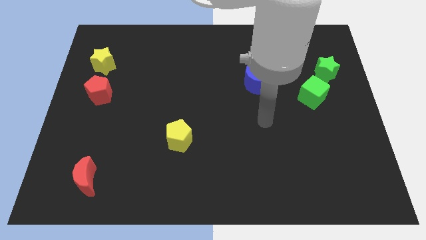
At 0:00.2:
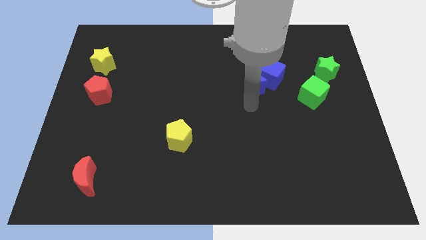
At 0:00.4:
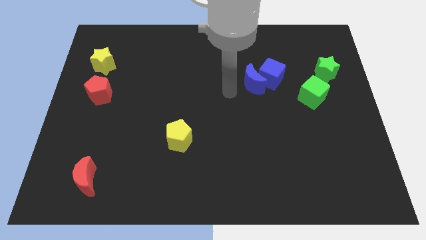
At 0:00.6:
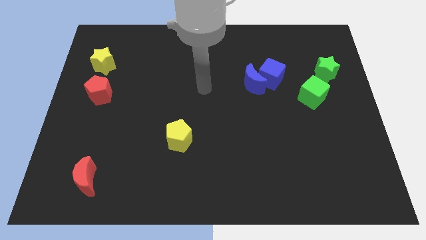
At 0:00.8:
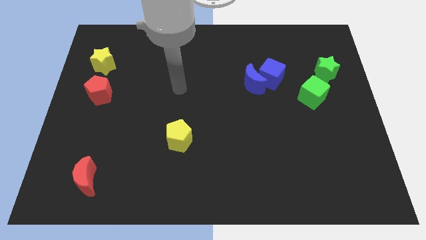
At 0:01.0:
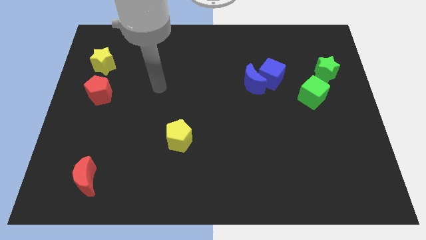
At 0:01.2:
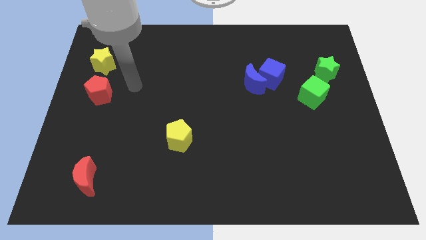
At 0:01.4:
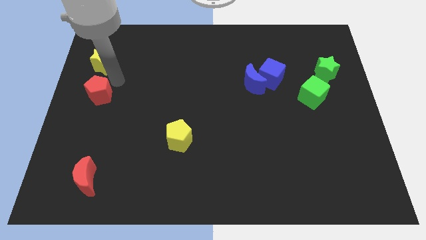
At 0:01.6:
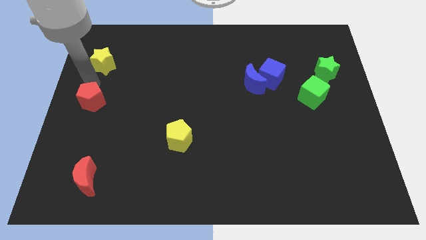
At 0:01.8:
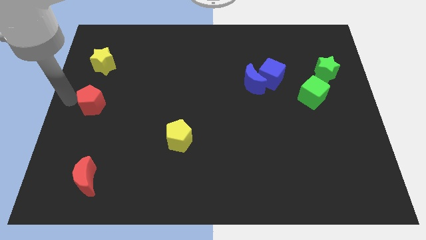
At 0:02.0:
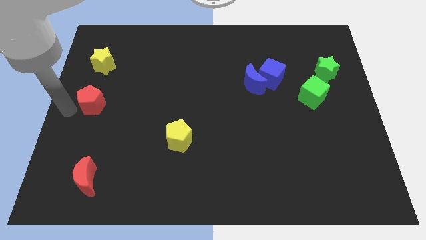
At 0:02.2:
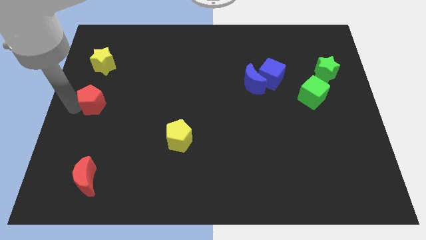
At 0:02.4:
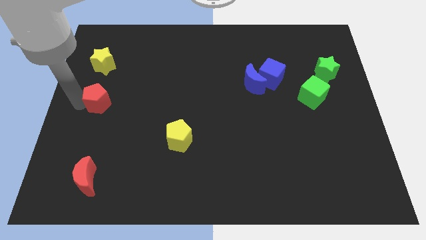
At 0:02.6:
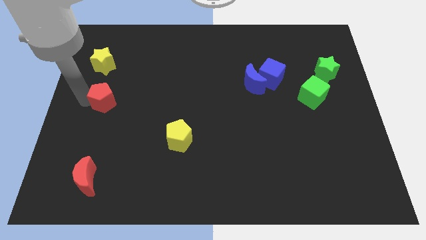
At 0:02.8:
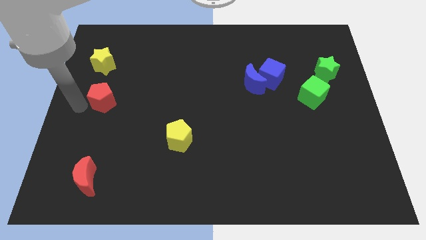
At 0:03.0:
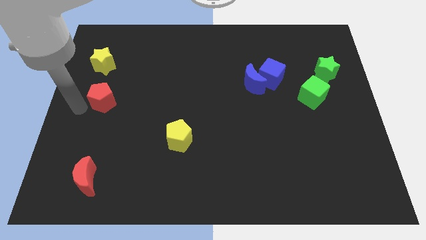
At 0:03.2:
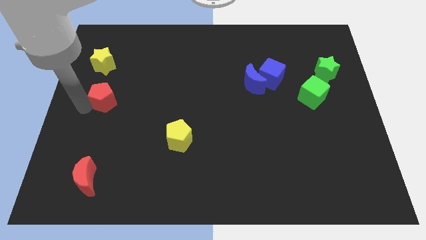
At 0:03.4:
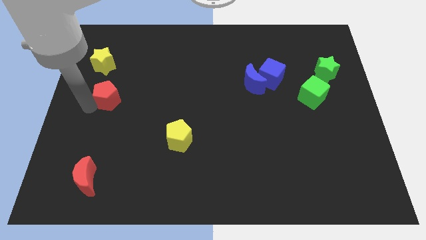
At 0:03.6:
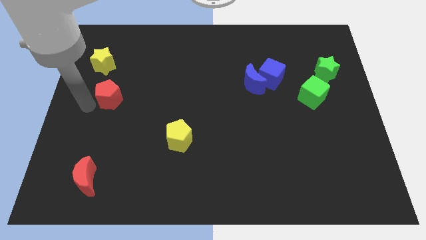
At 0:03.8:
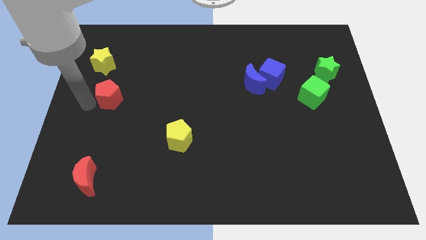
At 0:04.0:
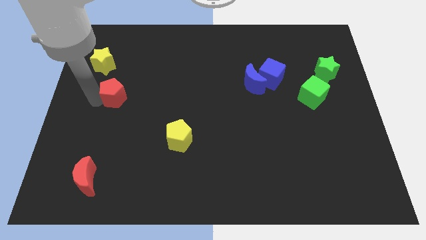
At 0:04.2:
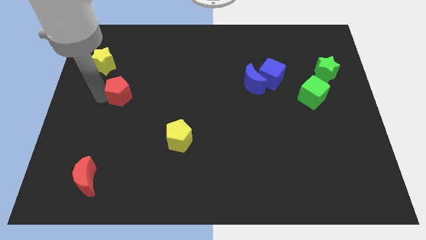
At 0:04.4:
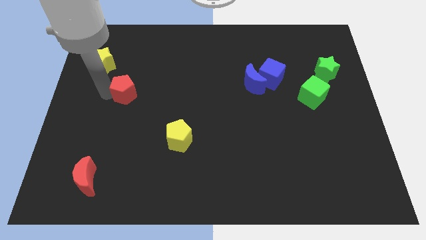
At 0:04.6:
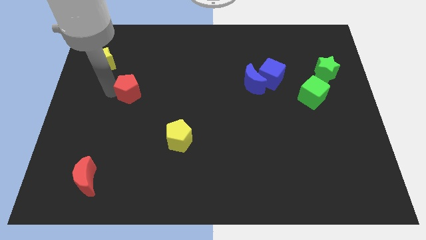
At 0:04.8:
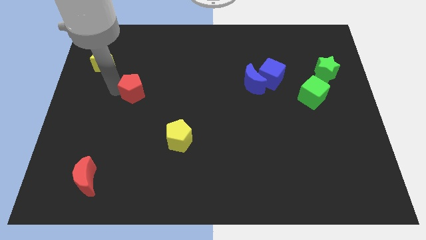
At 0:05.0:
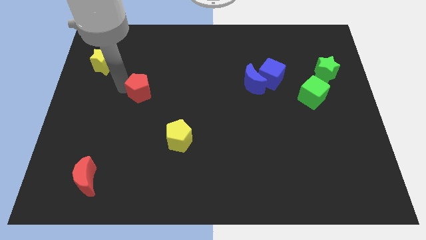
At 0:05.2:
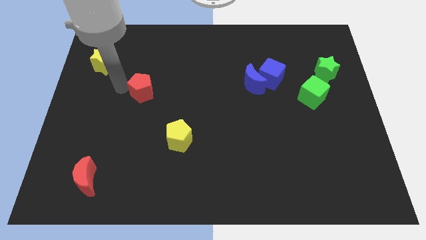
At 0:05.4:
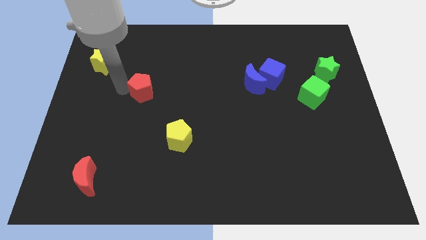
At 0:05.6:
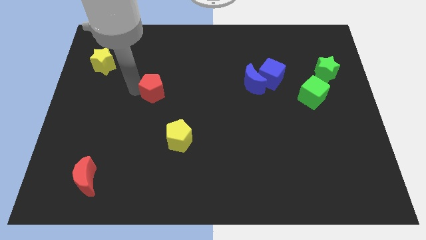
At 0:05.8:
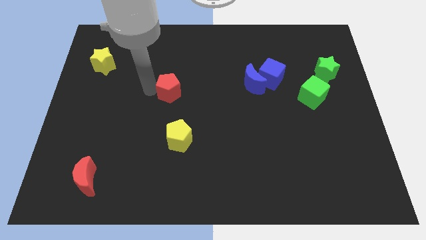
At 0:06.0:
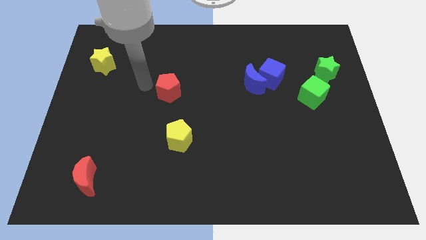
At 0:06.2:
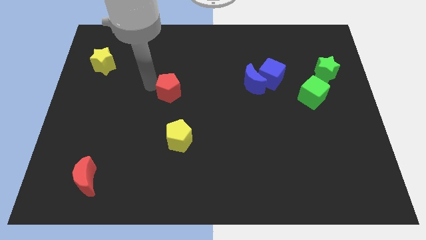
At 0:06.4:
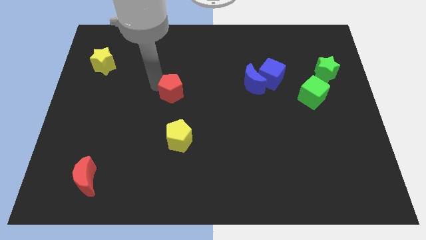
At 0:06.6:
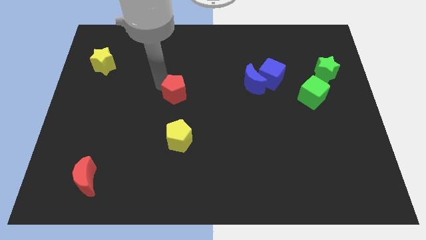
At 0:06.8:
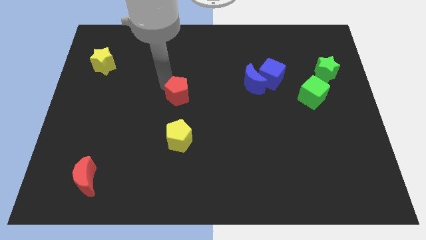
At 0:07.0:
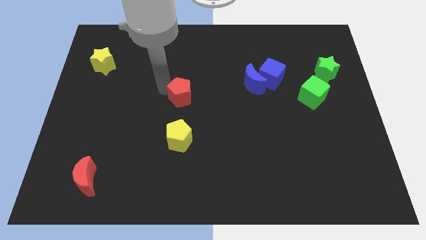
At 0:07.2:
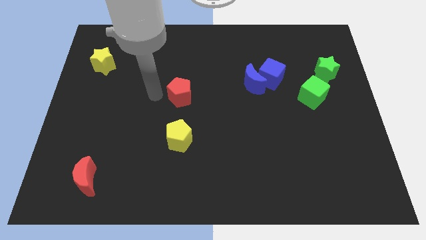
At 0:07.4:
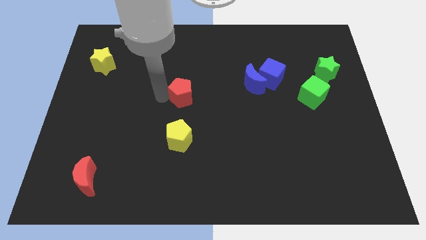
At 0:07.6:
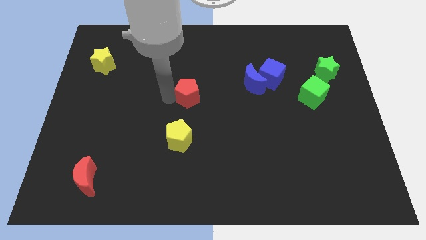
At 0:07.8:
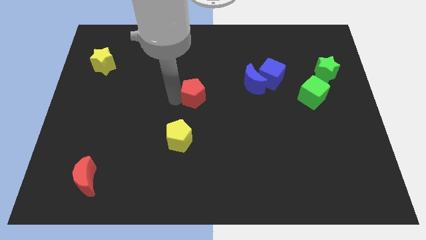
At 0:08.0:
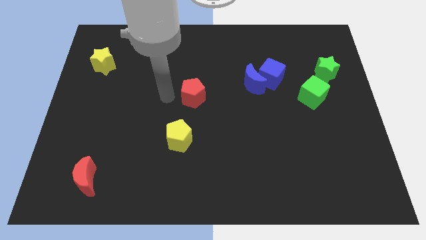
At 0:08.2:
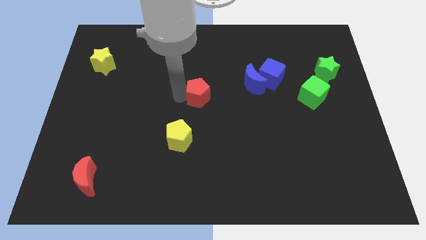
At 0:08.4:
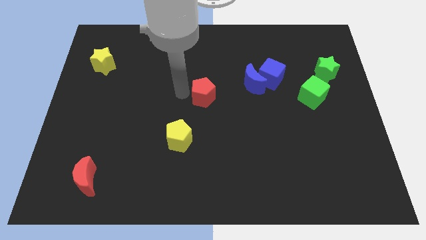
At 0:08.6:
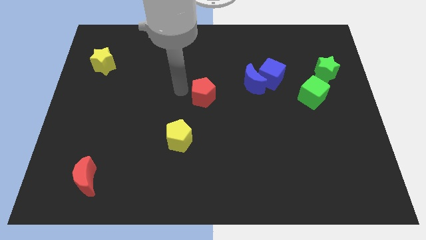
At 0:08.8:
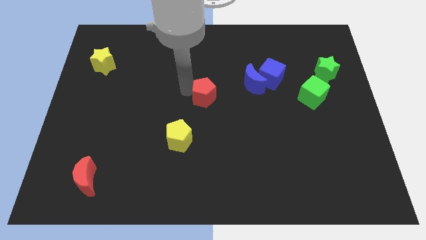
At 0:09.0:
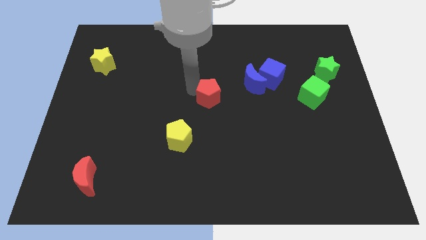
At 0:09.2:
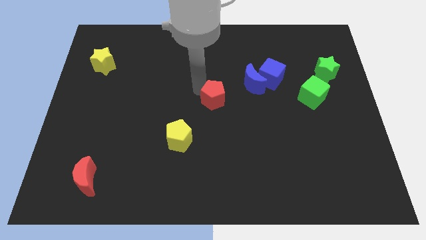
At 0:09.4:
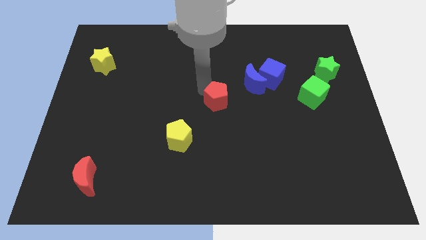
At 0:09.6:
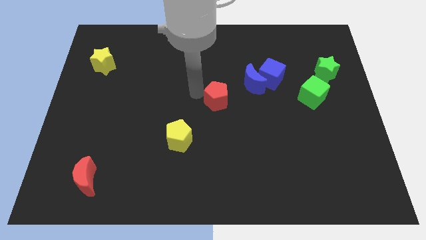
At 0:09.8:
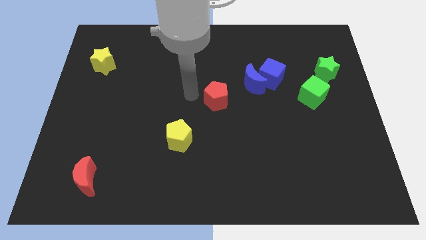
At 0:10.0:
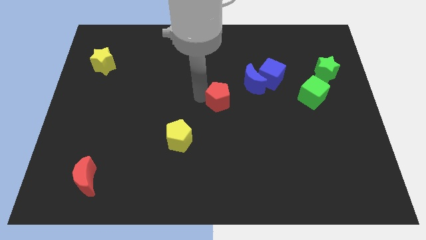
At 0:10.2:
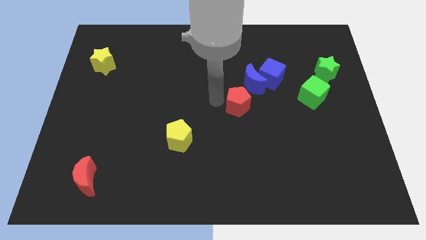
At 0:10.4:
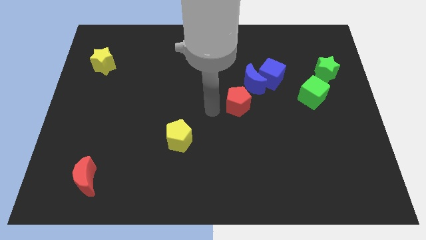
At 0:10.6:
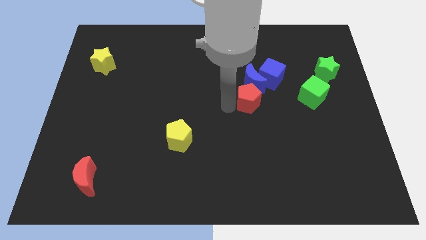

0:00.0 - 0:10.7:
put the red pentagon just left of the green cube

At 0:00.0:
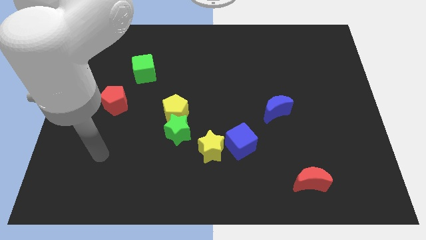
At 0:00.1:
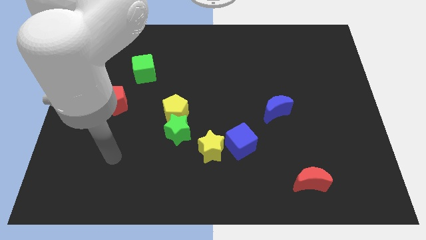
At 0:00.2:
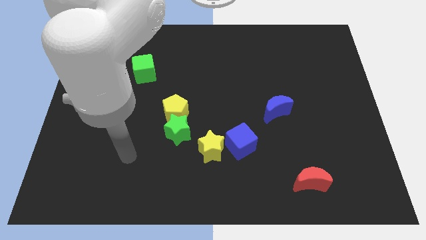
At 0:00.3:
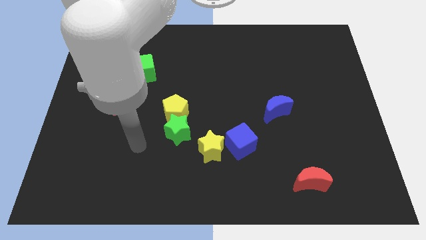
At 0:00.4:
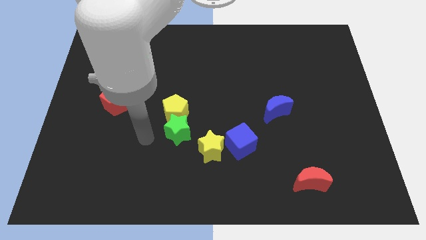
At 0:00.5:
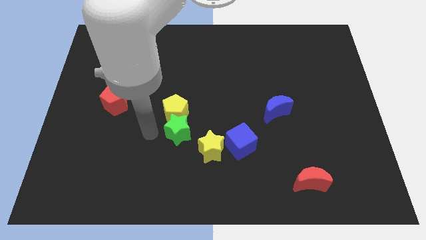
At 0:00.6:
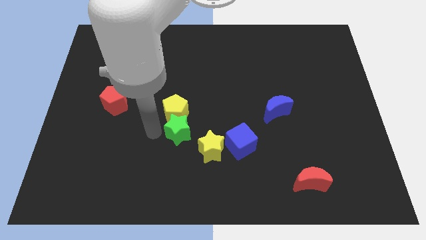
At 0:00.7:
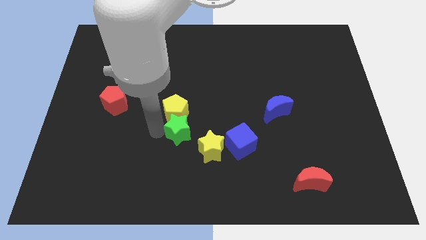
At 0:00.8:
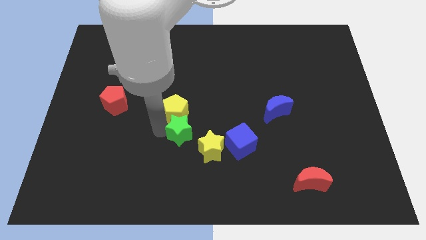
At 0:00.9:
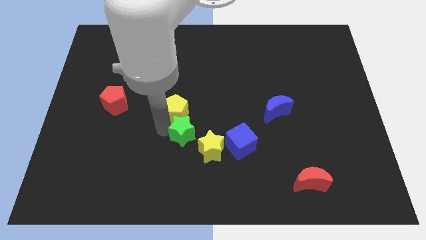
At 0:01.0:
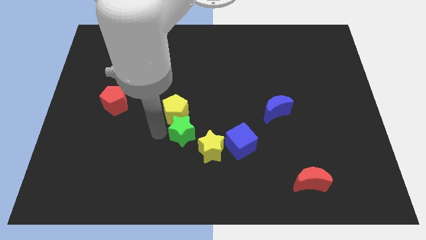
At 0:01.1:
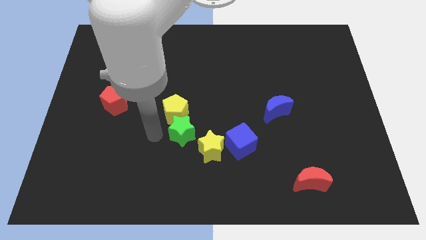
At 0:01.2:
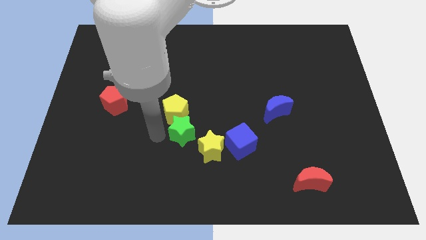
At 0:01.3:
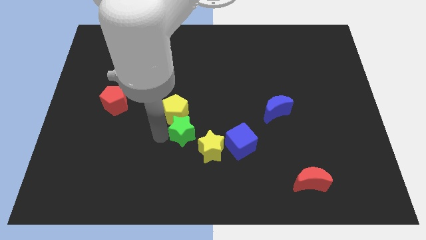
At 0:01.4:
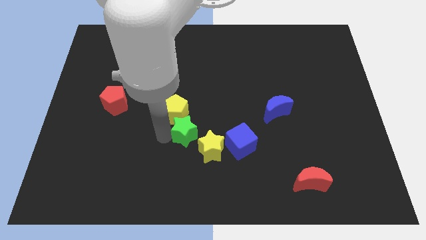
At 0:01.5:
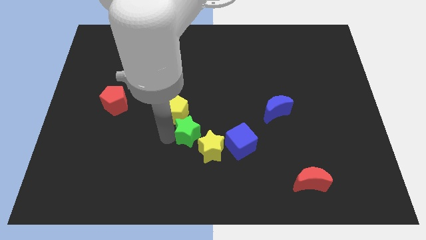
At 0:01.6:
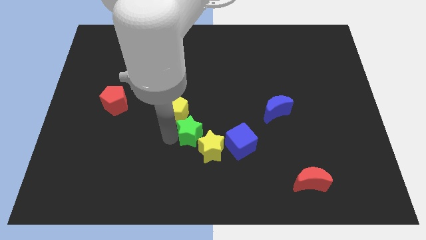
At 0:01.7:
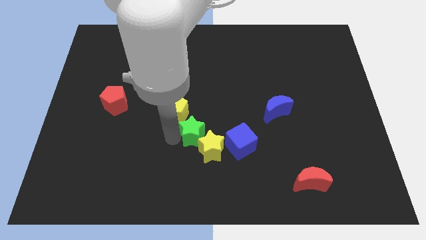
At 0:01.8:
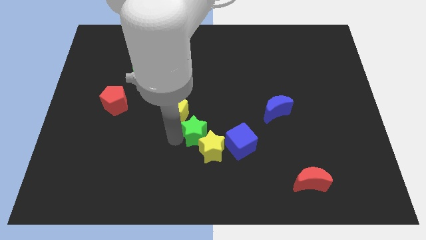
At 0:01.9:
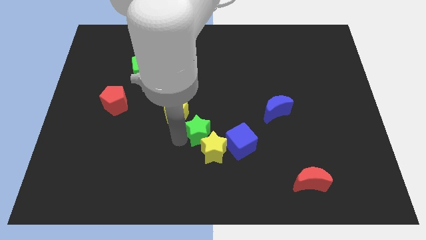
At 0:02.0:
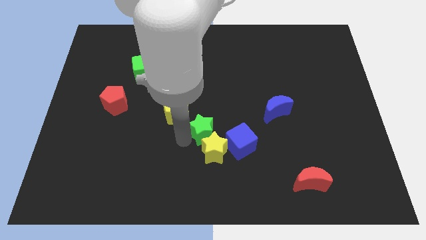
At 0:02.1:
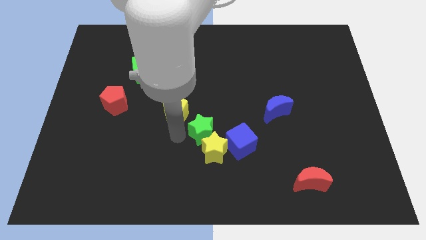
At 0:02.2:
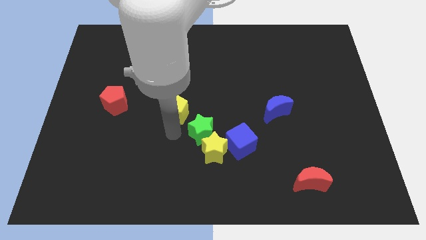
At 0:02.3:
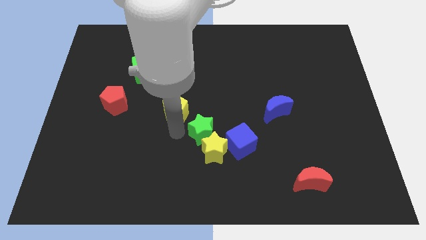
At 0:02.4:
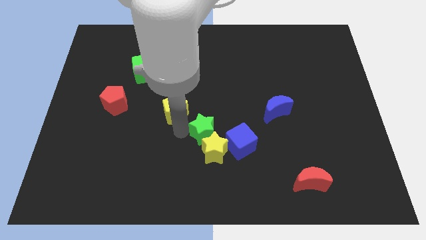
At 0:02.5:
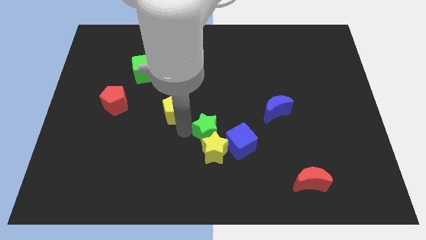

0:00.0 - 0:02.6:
slide the green star to the top right side of the yellow star
